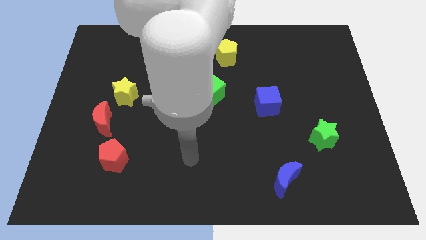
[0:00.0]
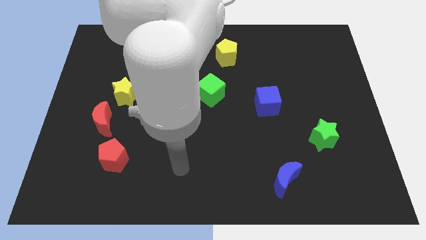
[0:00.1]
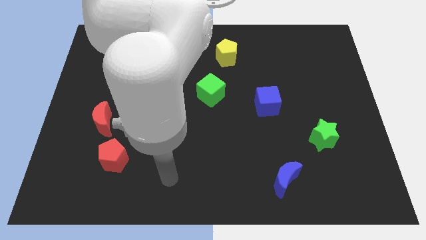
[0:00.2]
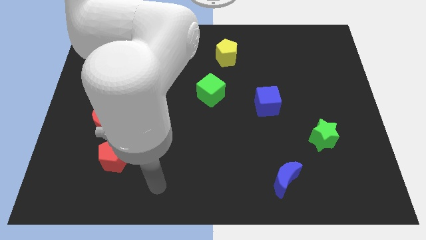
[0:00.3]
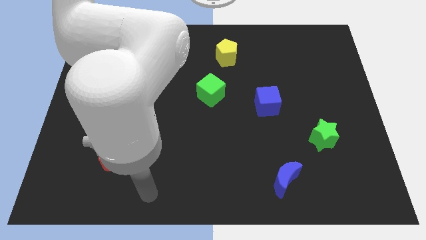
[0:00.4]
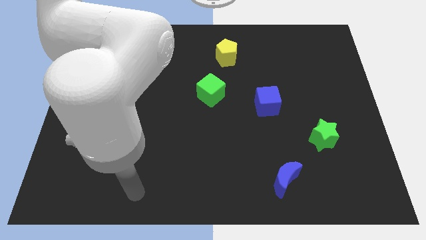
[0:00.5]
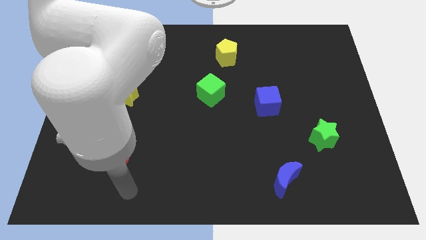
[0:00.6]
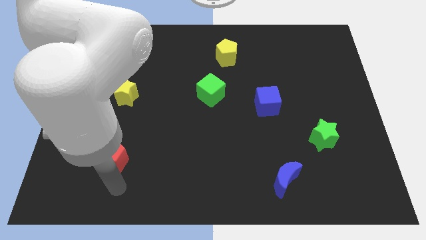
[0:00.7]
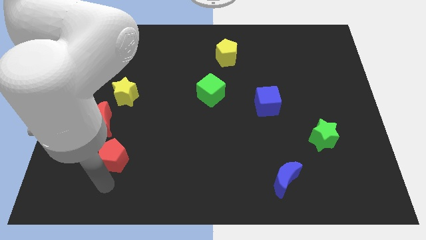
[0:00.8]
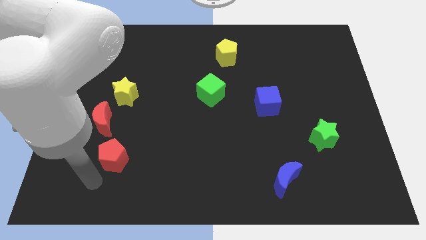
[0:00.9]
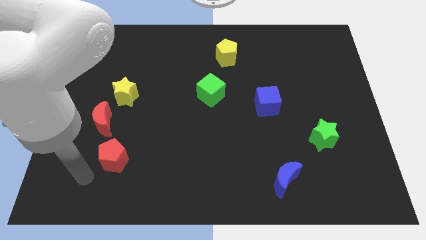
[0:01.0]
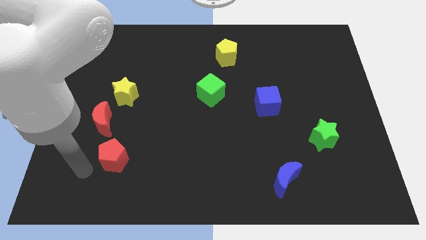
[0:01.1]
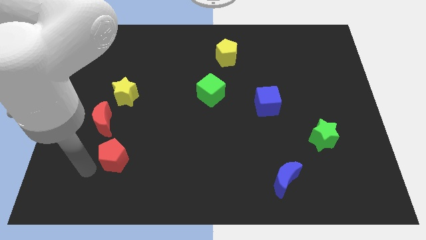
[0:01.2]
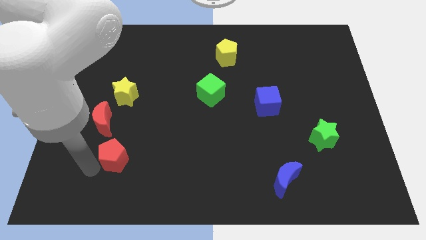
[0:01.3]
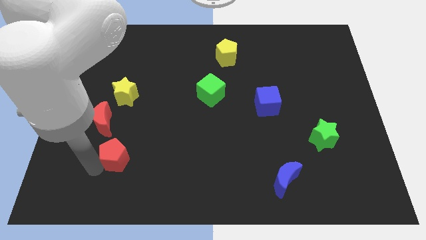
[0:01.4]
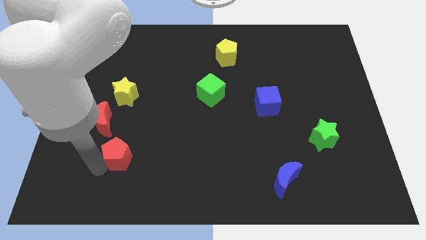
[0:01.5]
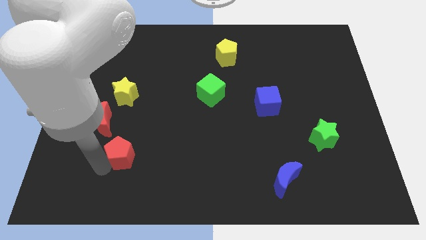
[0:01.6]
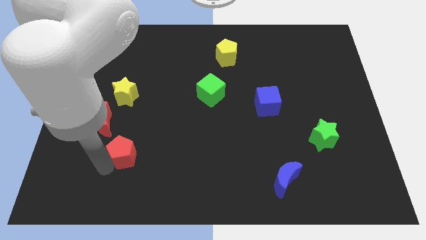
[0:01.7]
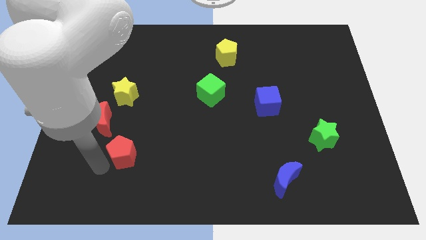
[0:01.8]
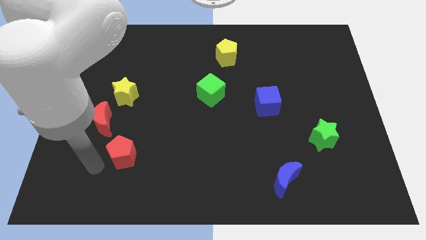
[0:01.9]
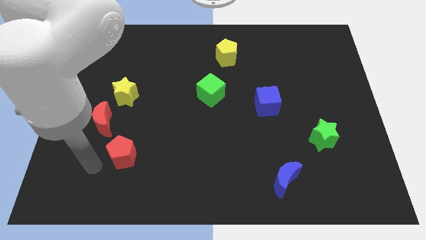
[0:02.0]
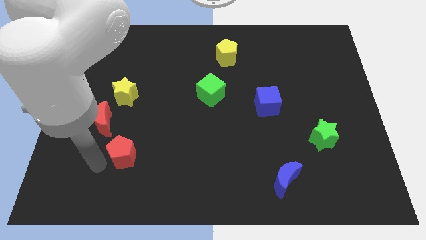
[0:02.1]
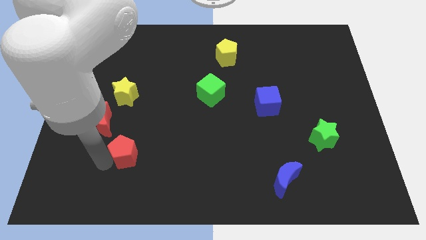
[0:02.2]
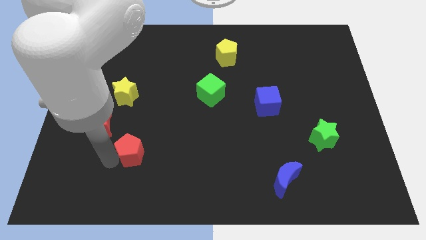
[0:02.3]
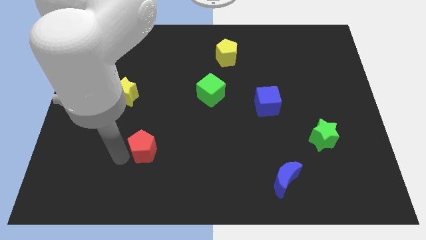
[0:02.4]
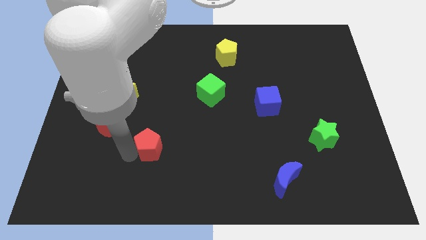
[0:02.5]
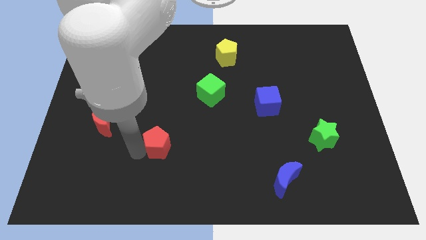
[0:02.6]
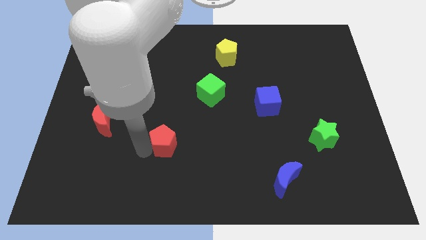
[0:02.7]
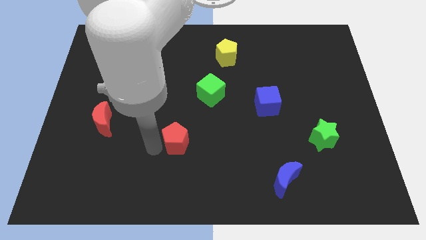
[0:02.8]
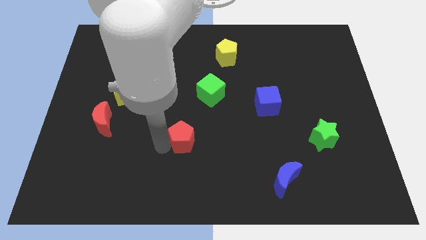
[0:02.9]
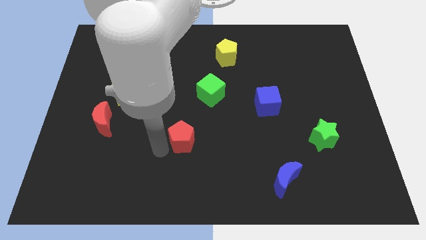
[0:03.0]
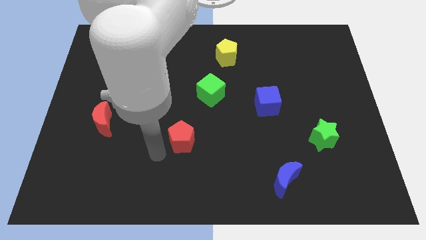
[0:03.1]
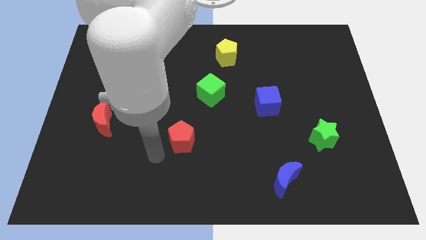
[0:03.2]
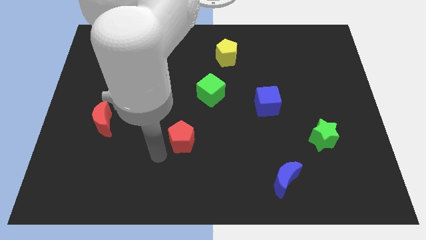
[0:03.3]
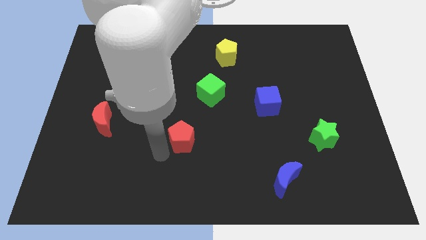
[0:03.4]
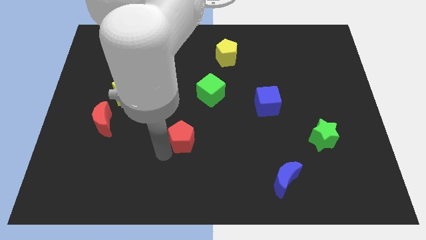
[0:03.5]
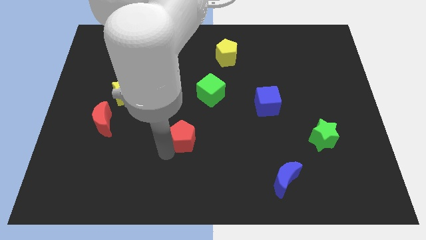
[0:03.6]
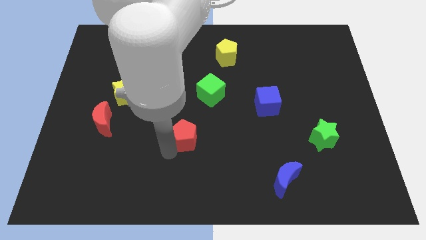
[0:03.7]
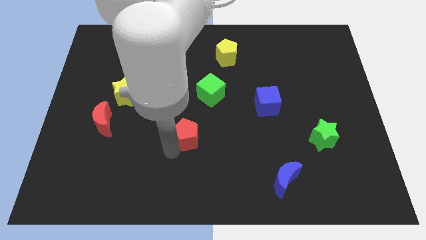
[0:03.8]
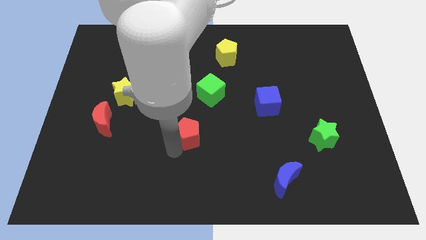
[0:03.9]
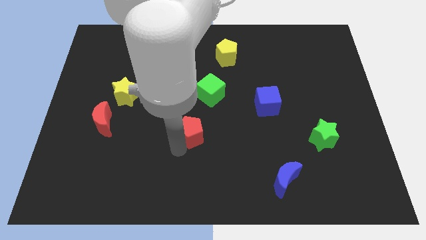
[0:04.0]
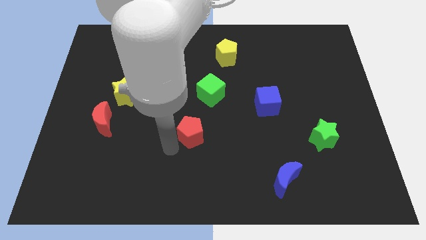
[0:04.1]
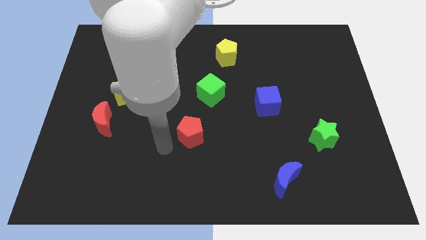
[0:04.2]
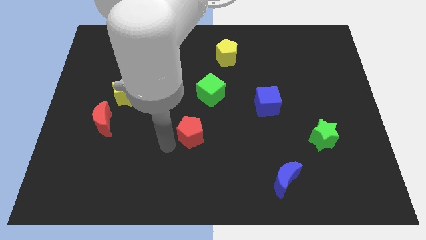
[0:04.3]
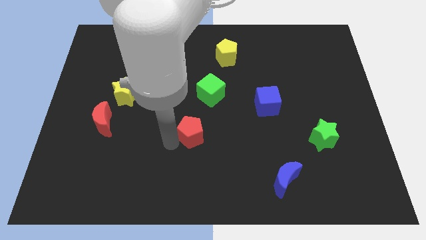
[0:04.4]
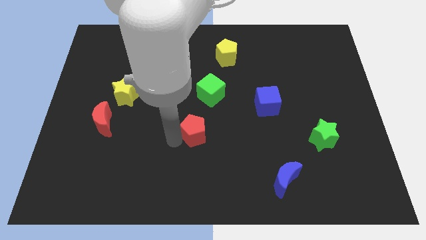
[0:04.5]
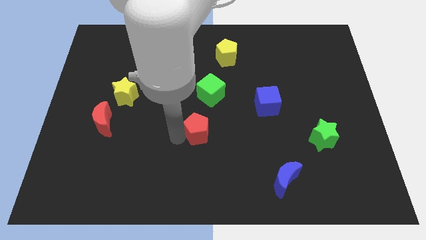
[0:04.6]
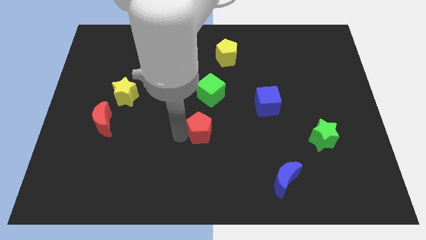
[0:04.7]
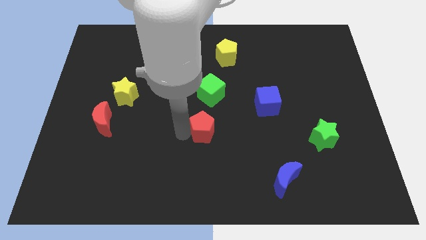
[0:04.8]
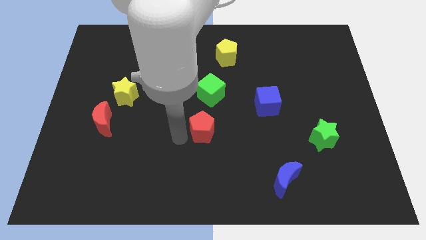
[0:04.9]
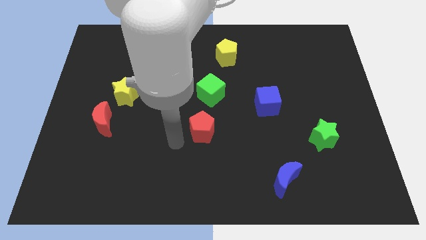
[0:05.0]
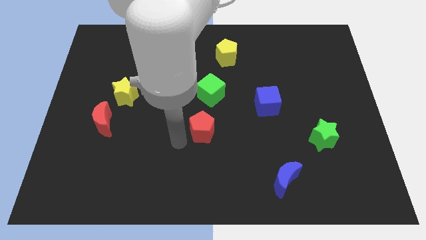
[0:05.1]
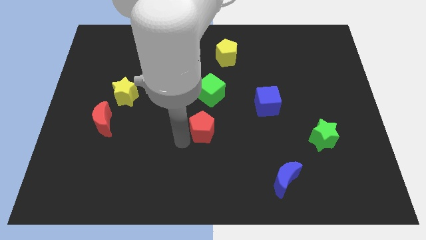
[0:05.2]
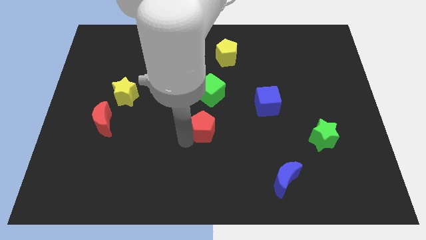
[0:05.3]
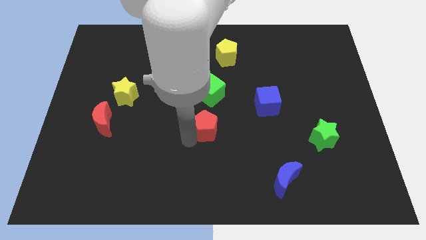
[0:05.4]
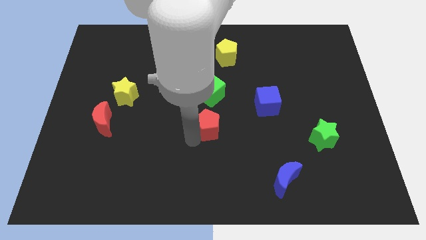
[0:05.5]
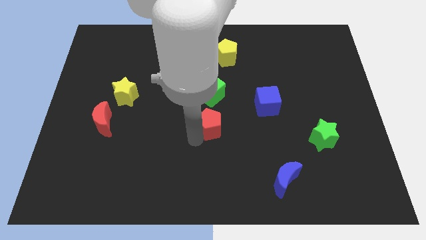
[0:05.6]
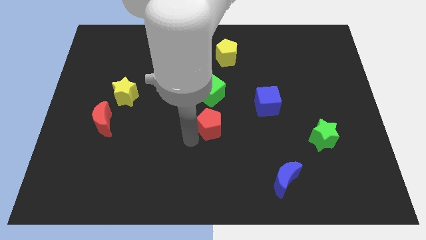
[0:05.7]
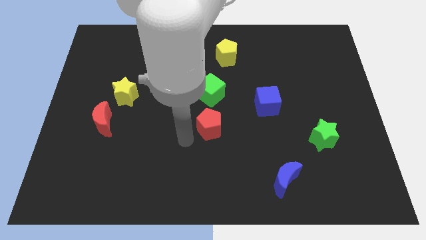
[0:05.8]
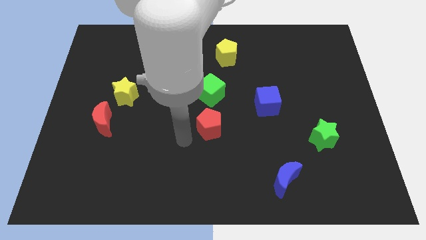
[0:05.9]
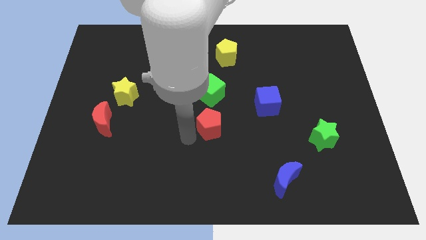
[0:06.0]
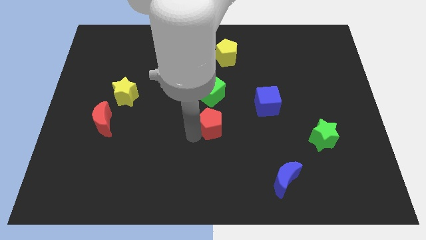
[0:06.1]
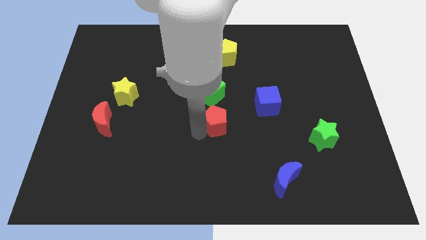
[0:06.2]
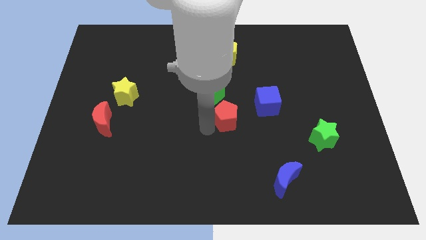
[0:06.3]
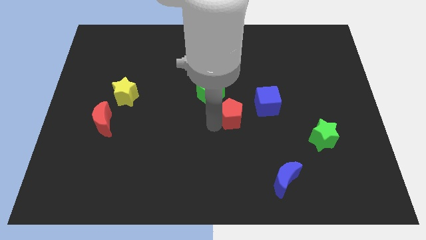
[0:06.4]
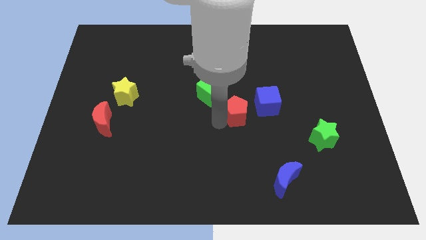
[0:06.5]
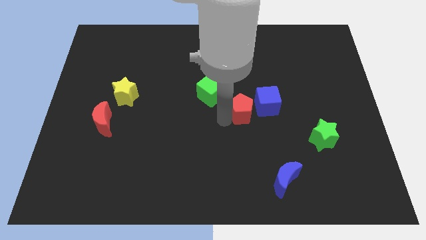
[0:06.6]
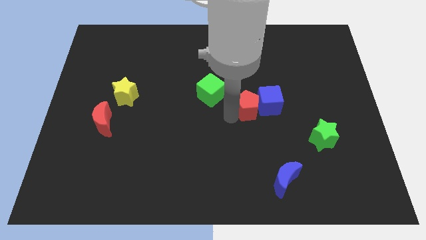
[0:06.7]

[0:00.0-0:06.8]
move the red pentagon next to the blue cube
